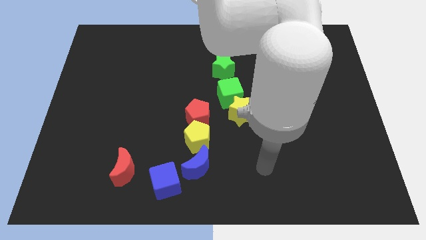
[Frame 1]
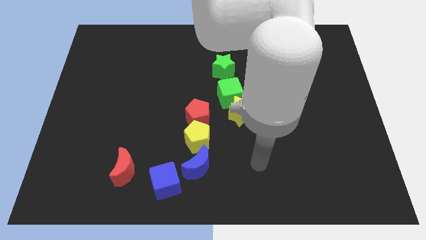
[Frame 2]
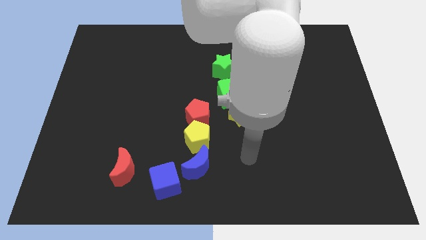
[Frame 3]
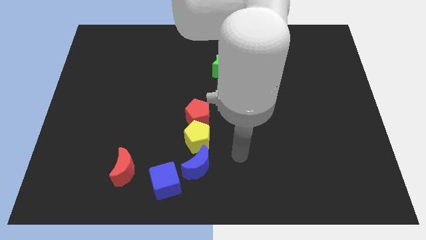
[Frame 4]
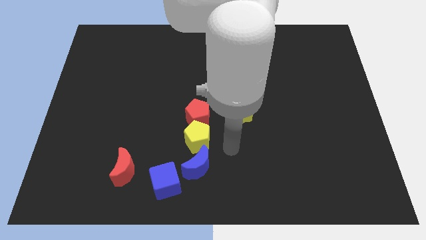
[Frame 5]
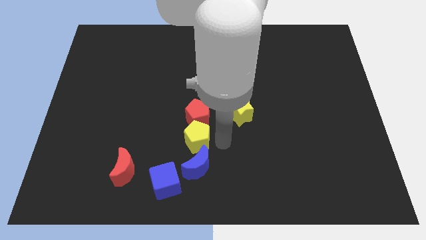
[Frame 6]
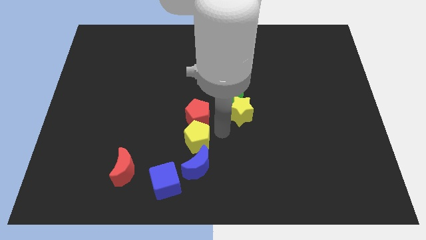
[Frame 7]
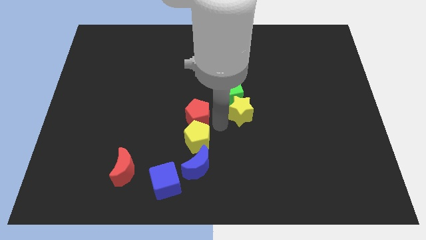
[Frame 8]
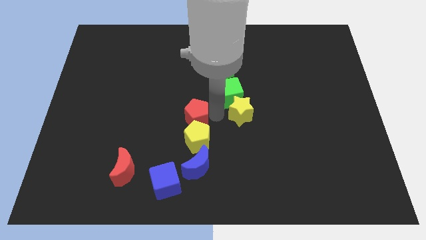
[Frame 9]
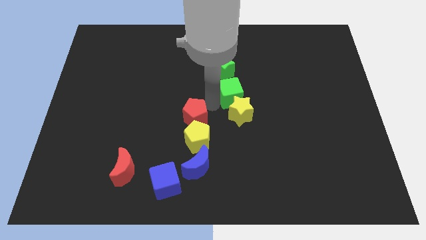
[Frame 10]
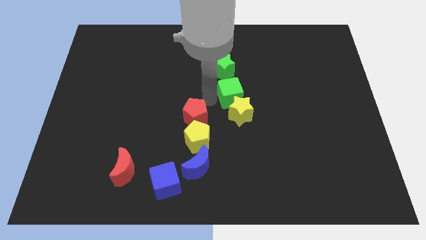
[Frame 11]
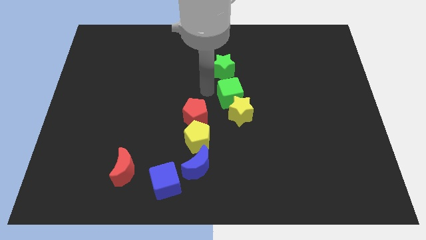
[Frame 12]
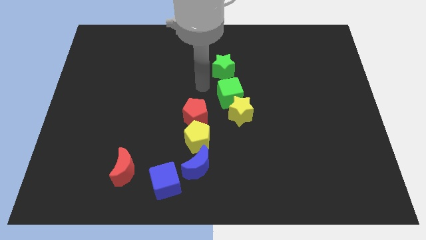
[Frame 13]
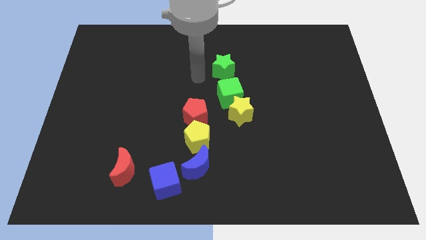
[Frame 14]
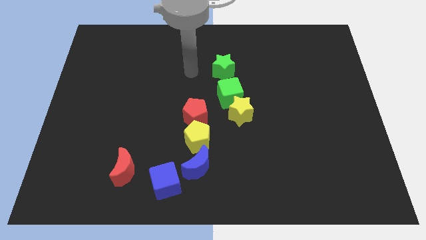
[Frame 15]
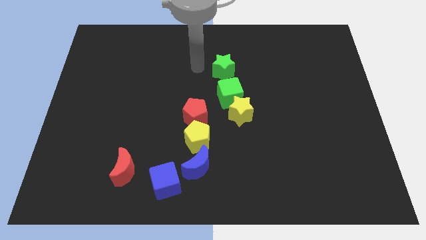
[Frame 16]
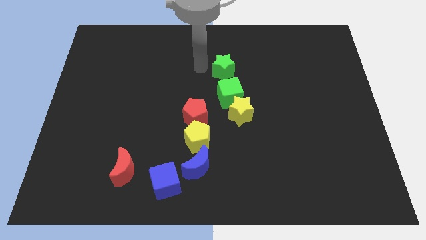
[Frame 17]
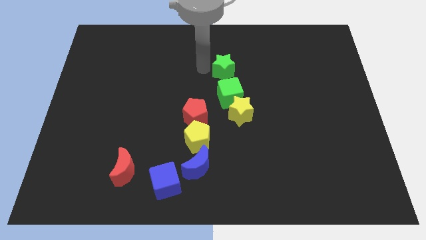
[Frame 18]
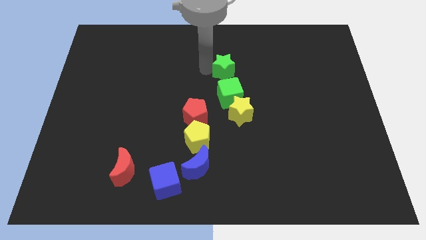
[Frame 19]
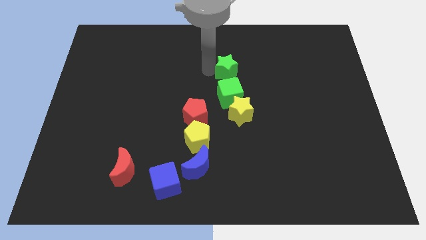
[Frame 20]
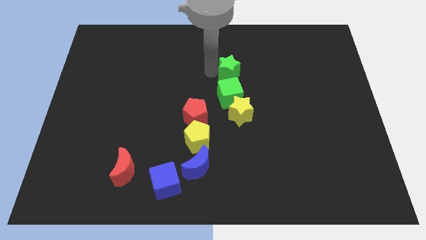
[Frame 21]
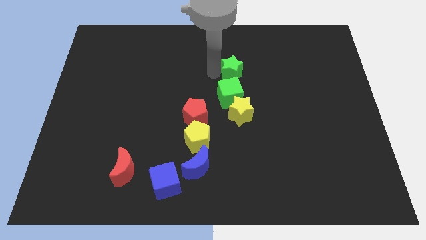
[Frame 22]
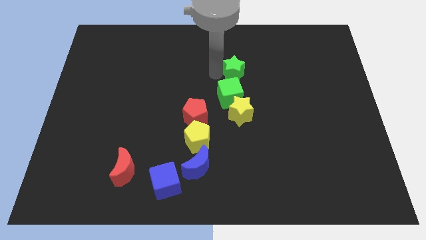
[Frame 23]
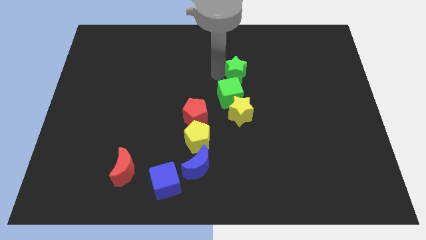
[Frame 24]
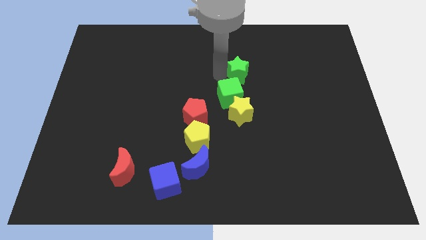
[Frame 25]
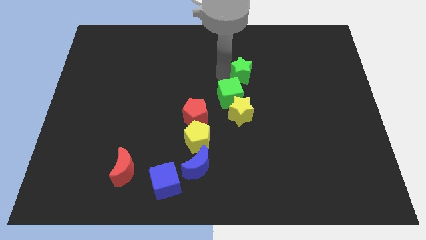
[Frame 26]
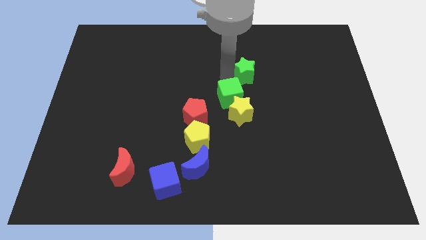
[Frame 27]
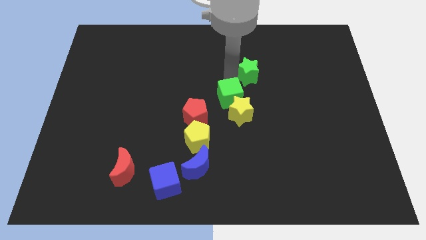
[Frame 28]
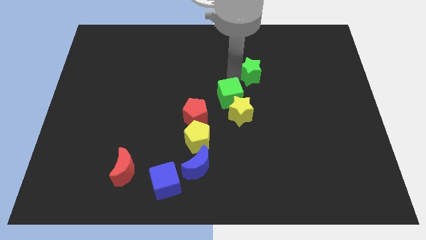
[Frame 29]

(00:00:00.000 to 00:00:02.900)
slightly slide the green star to the right

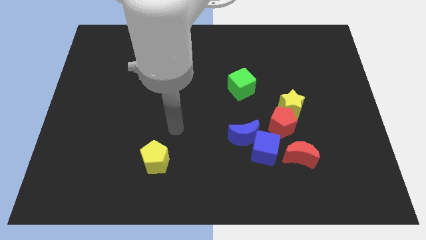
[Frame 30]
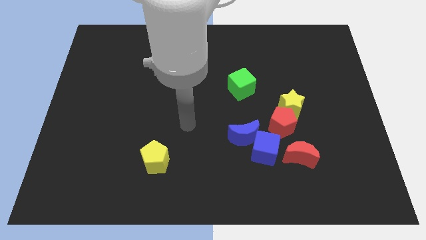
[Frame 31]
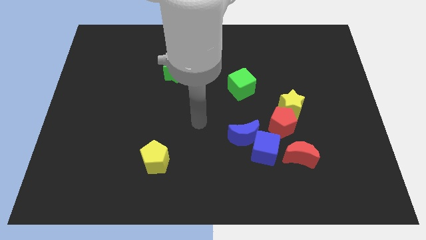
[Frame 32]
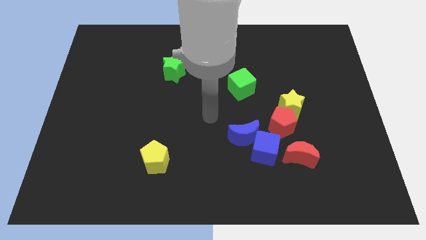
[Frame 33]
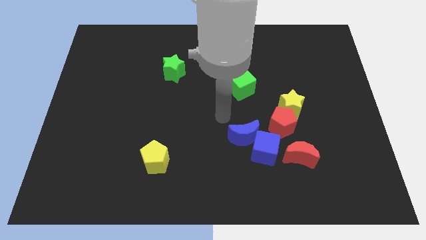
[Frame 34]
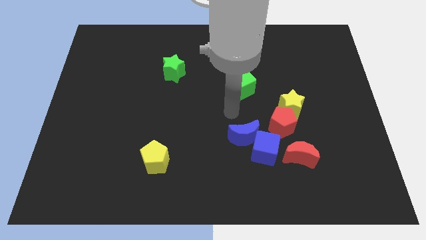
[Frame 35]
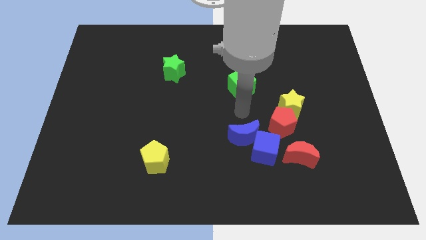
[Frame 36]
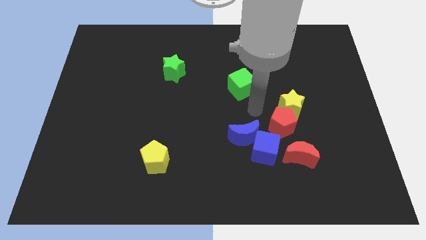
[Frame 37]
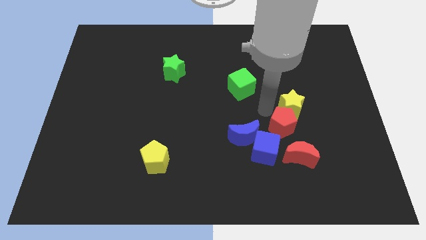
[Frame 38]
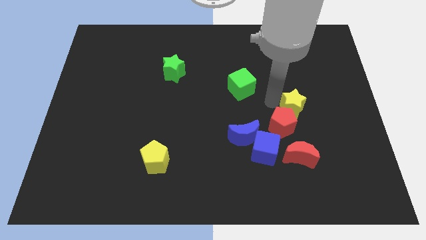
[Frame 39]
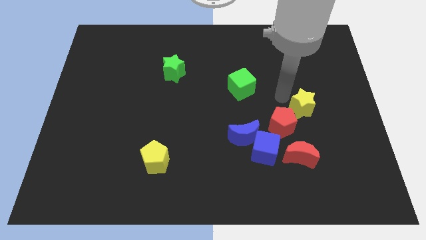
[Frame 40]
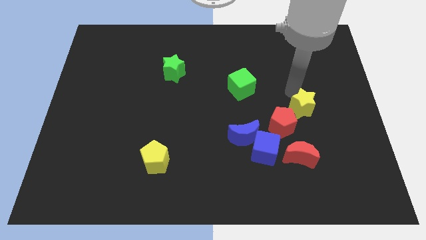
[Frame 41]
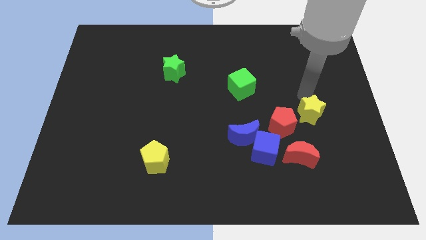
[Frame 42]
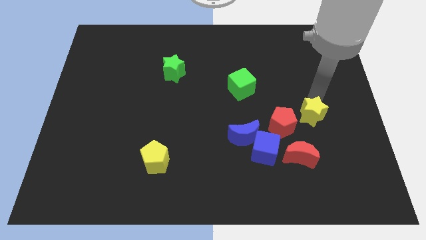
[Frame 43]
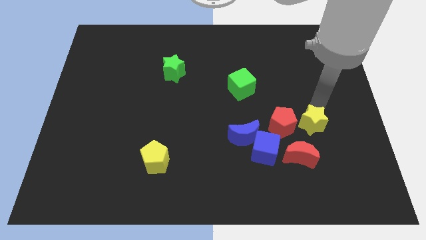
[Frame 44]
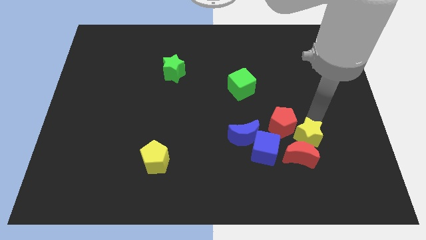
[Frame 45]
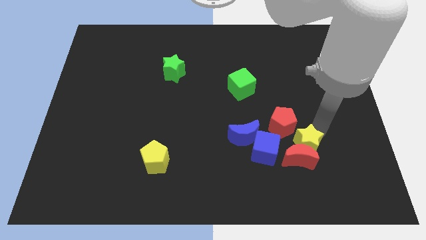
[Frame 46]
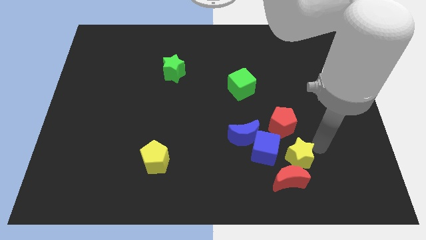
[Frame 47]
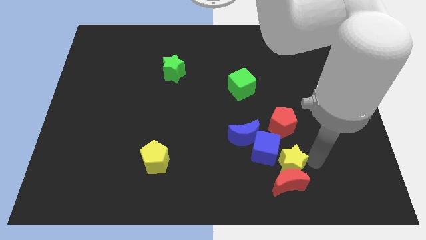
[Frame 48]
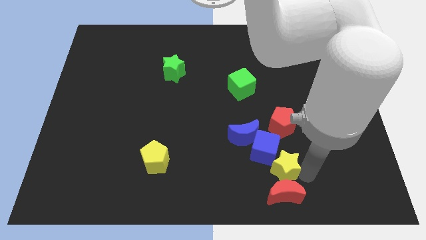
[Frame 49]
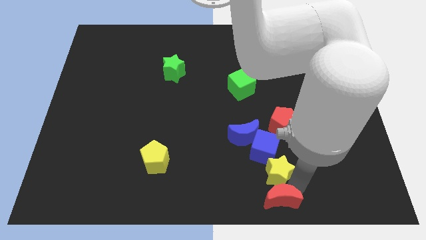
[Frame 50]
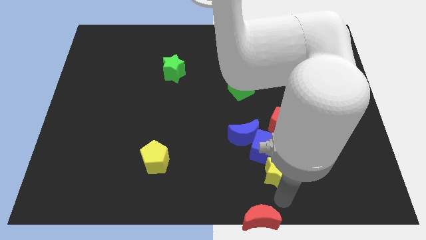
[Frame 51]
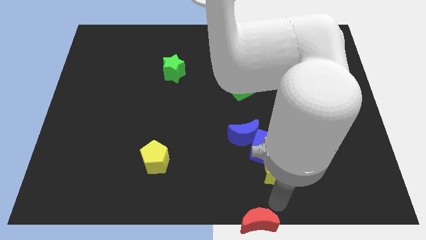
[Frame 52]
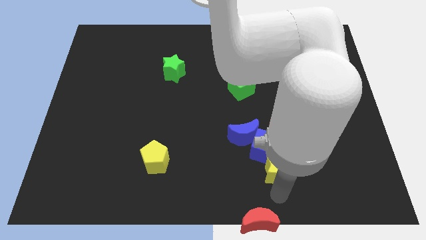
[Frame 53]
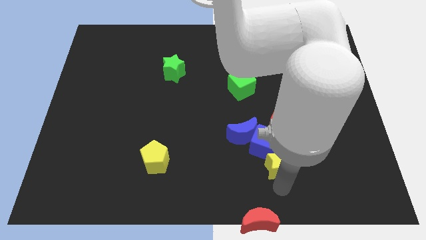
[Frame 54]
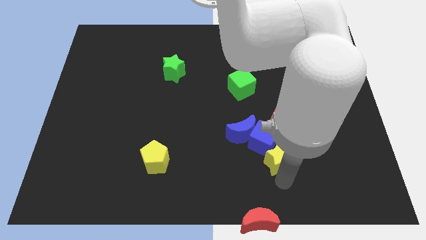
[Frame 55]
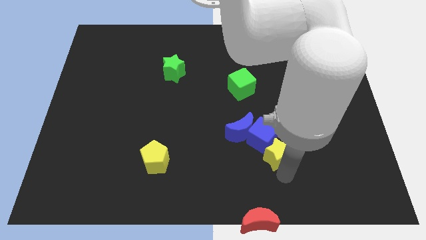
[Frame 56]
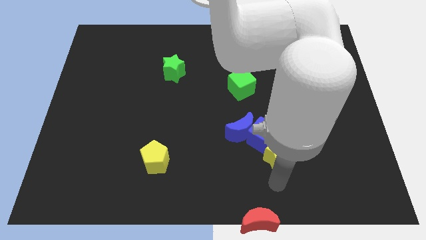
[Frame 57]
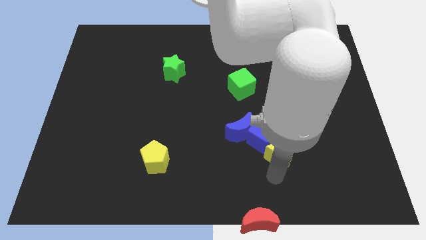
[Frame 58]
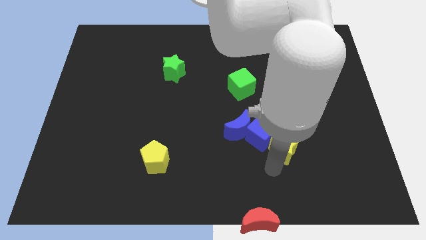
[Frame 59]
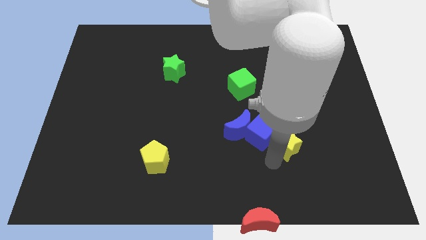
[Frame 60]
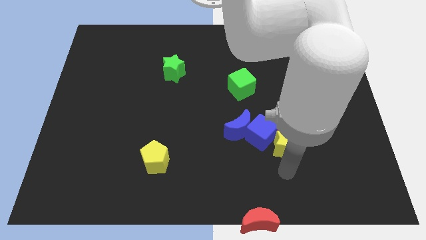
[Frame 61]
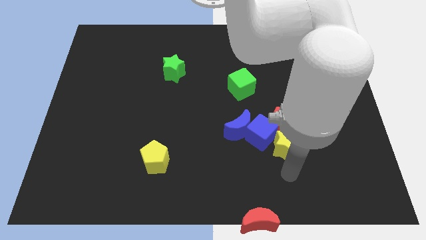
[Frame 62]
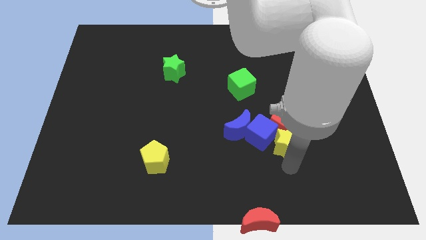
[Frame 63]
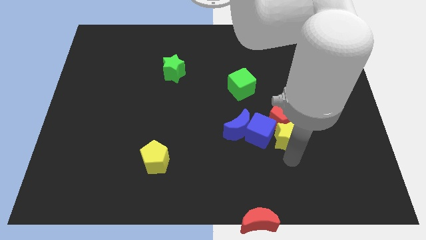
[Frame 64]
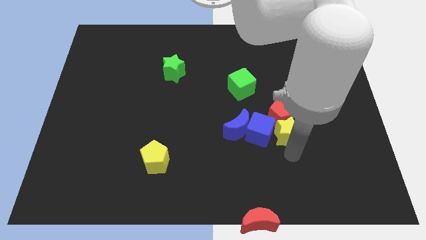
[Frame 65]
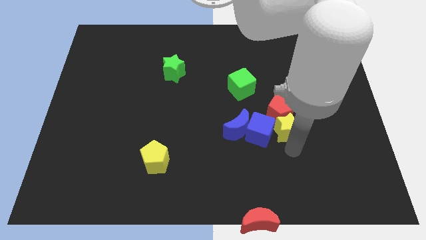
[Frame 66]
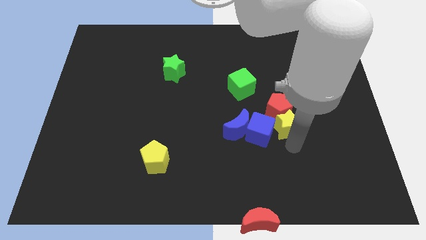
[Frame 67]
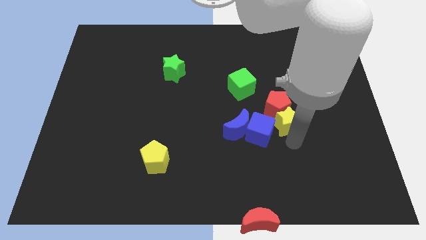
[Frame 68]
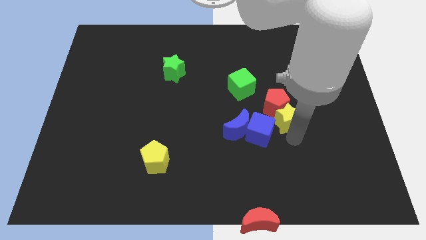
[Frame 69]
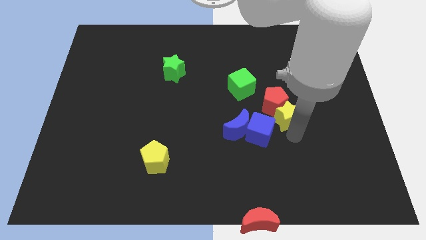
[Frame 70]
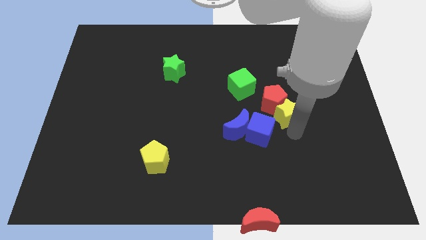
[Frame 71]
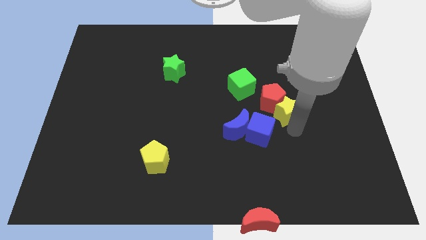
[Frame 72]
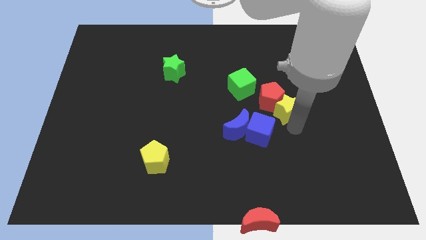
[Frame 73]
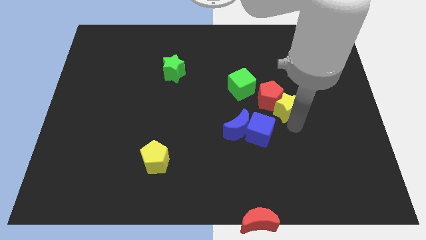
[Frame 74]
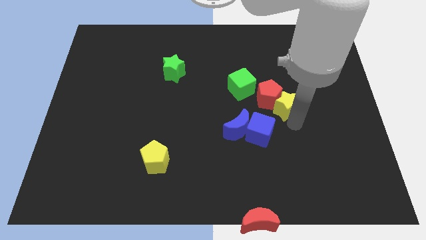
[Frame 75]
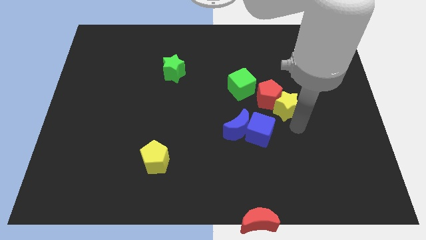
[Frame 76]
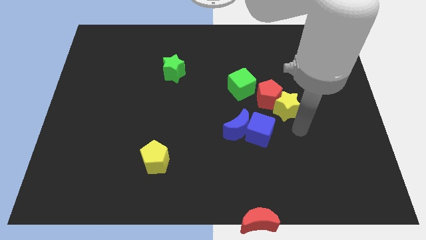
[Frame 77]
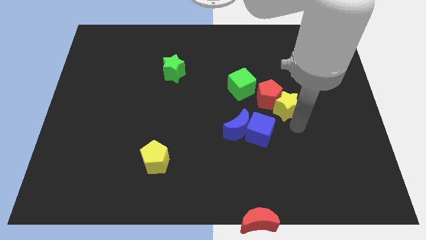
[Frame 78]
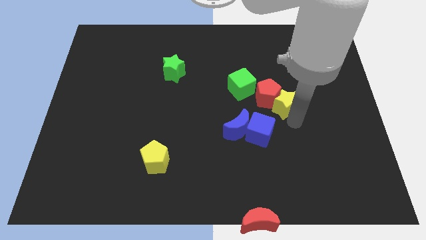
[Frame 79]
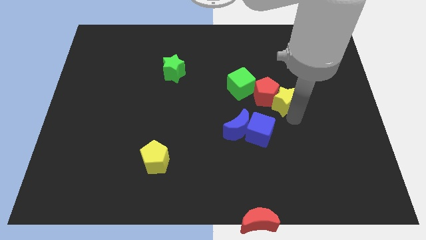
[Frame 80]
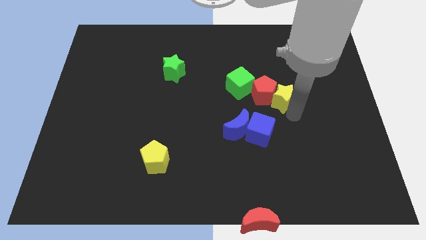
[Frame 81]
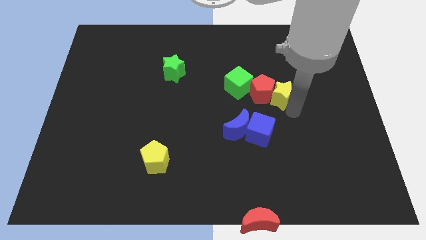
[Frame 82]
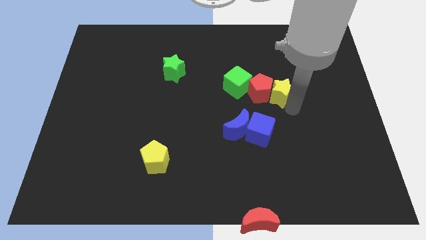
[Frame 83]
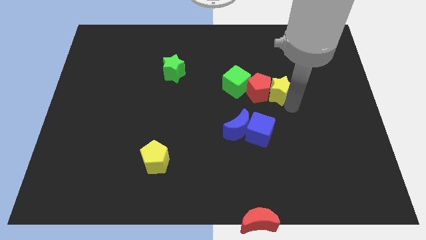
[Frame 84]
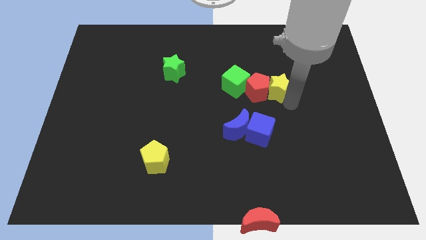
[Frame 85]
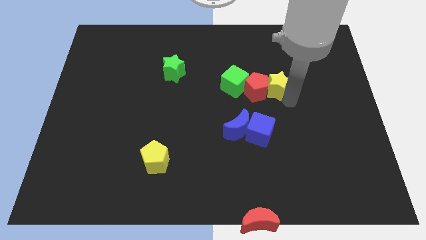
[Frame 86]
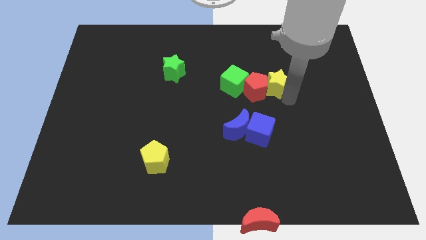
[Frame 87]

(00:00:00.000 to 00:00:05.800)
slide the yellow star slightly diagonally upwards and left
